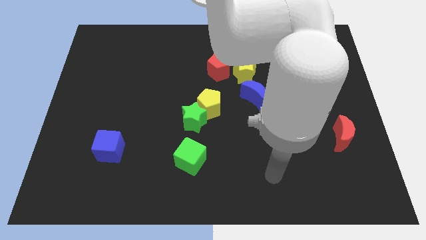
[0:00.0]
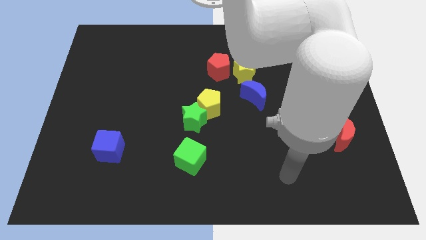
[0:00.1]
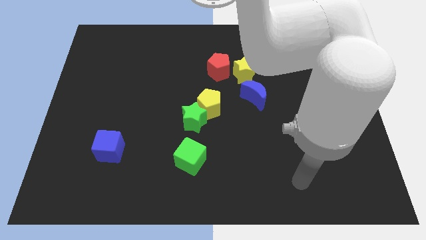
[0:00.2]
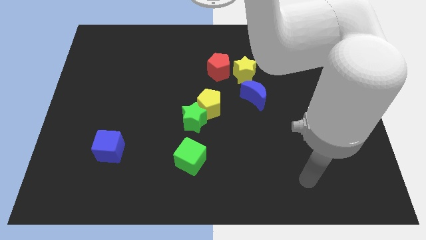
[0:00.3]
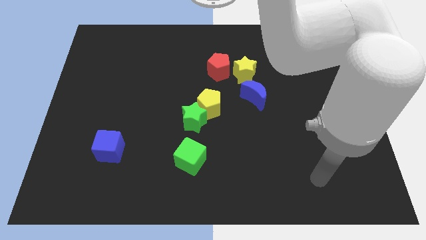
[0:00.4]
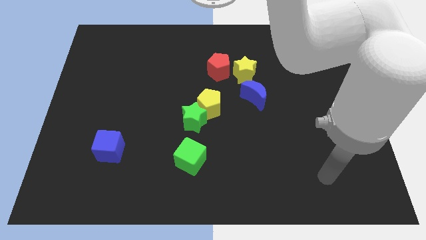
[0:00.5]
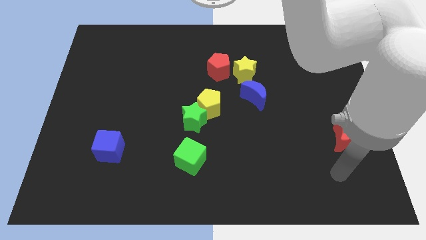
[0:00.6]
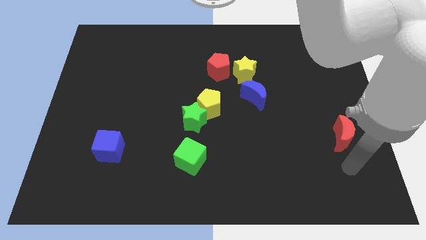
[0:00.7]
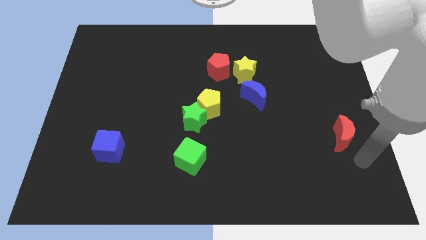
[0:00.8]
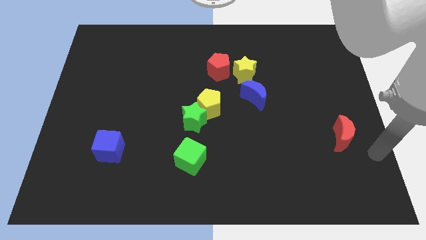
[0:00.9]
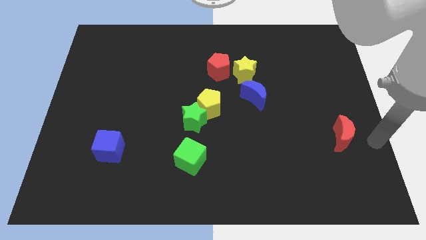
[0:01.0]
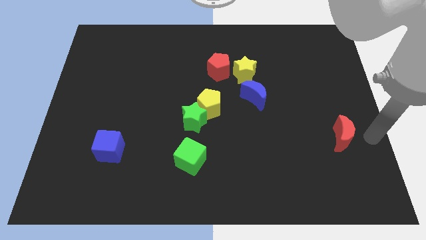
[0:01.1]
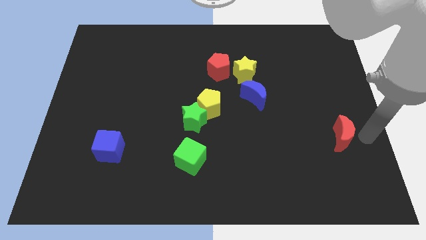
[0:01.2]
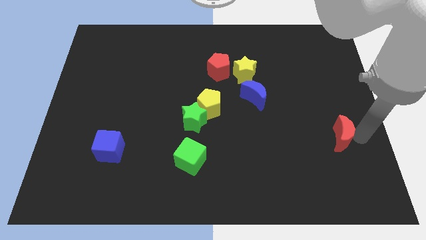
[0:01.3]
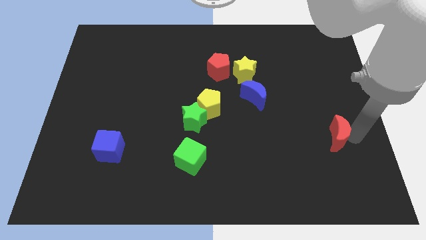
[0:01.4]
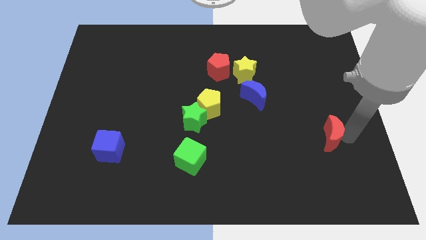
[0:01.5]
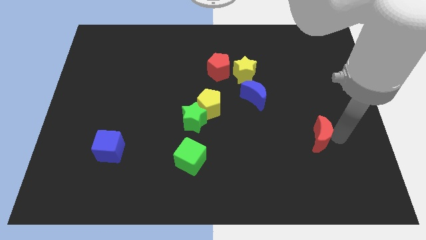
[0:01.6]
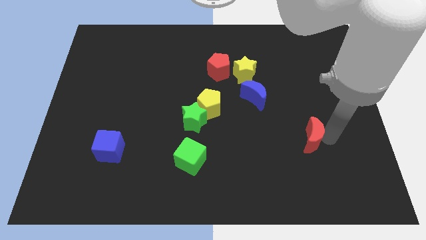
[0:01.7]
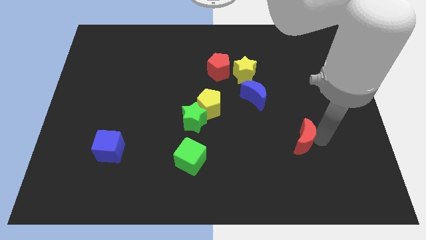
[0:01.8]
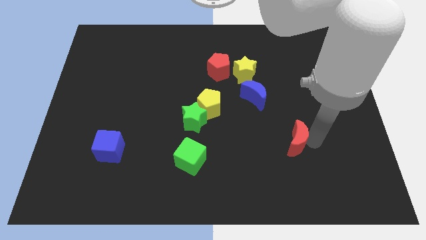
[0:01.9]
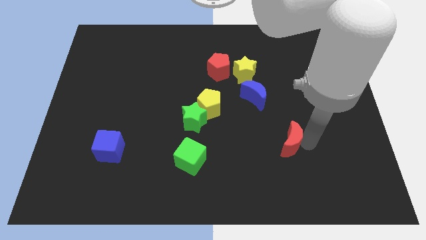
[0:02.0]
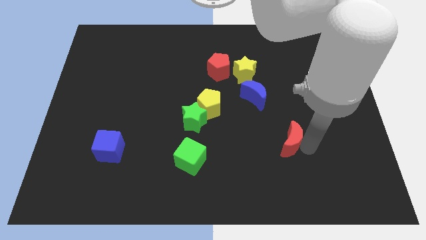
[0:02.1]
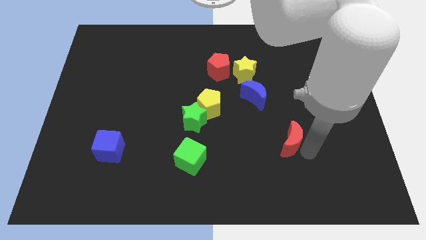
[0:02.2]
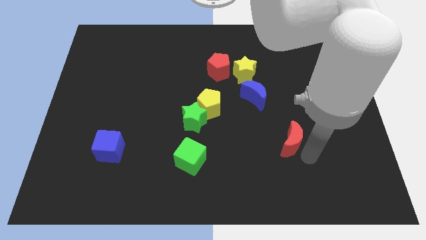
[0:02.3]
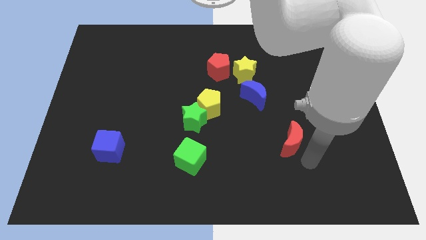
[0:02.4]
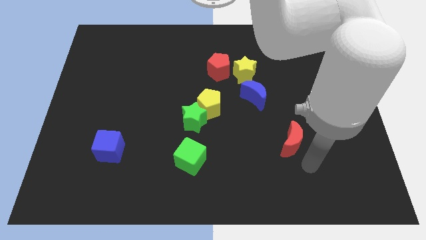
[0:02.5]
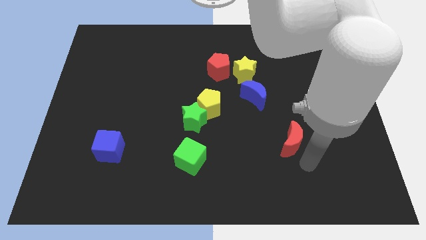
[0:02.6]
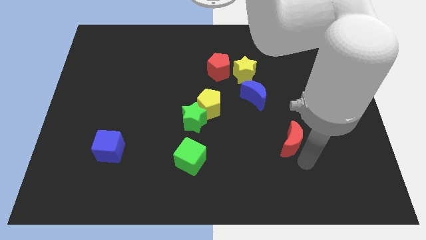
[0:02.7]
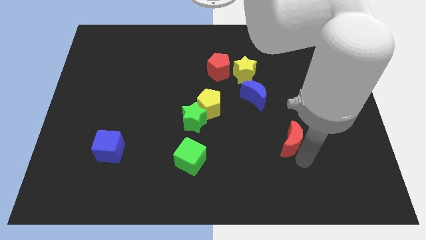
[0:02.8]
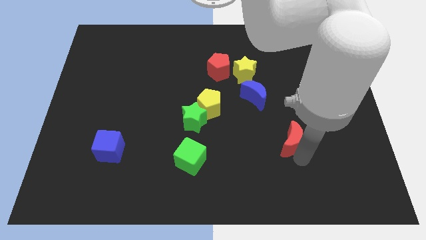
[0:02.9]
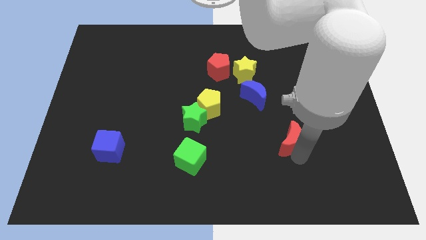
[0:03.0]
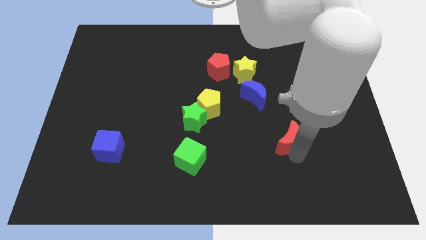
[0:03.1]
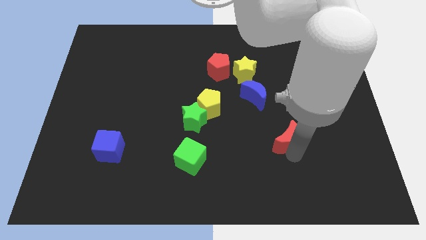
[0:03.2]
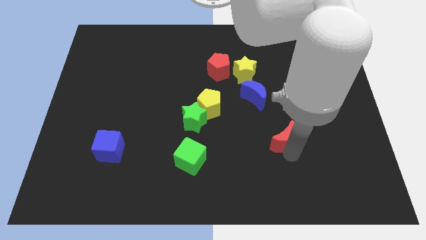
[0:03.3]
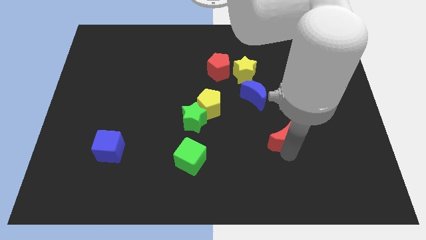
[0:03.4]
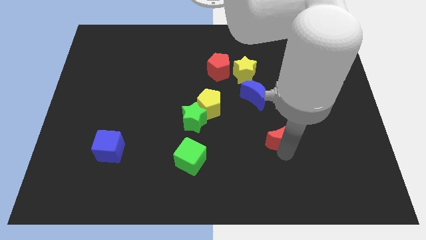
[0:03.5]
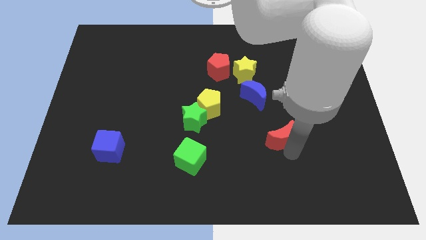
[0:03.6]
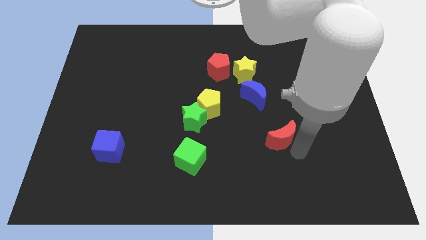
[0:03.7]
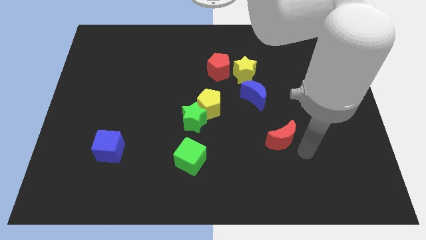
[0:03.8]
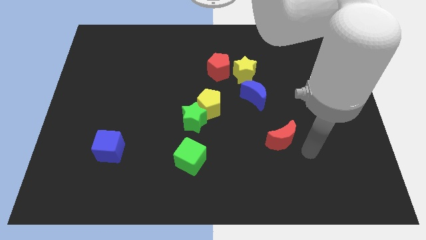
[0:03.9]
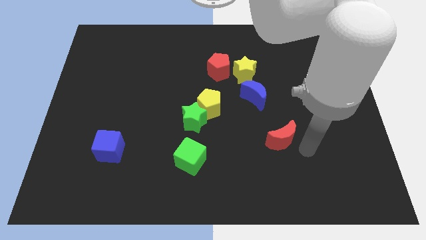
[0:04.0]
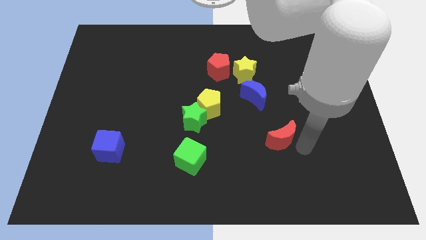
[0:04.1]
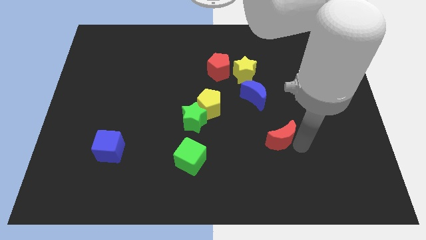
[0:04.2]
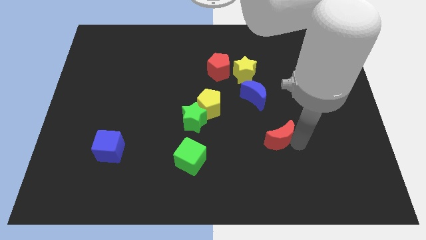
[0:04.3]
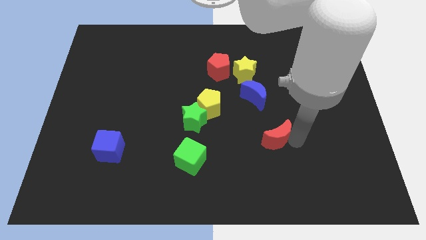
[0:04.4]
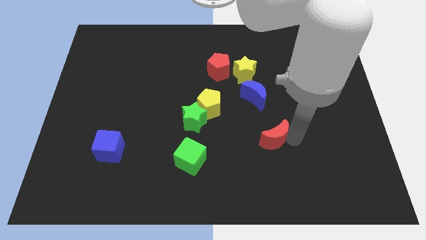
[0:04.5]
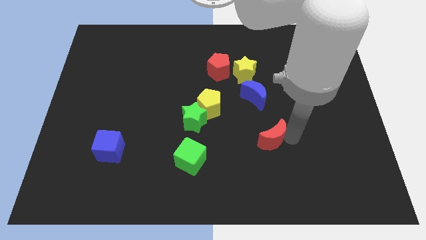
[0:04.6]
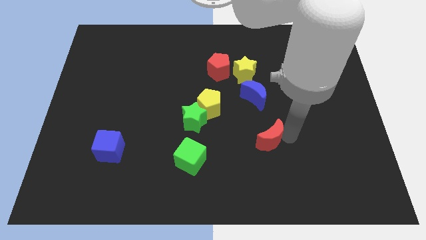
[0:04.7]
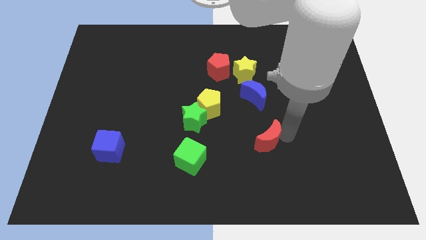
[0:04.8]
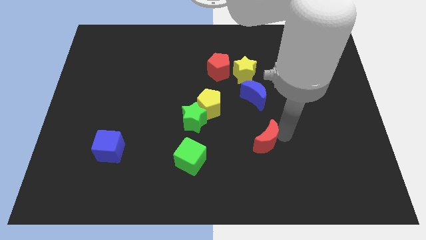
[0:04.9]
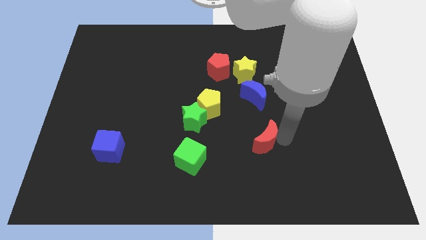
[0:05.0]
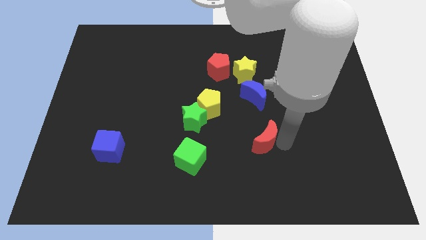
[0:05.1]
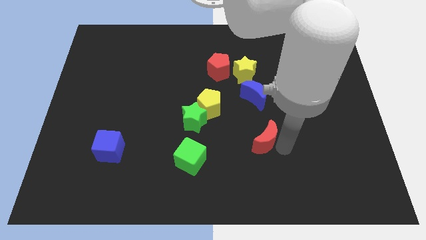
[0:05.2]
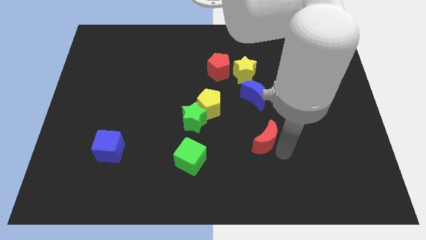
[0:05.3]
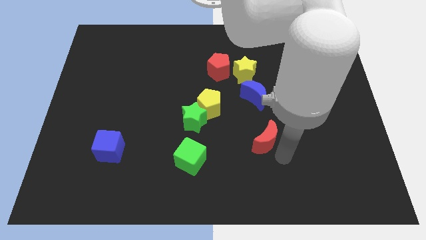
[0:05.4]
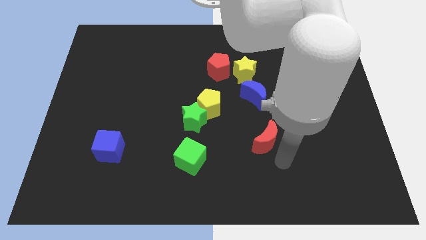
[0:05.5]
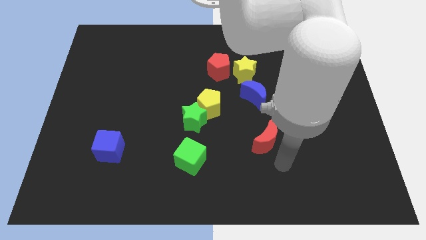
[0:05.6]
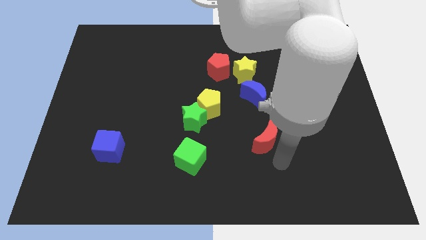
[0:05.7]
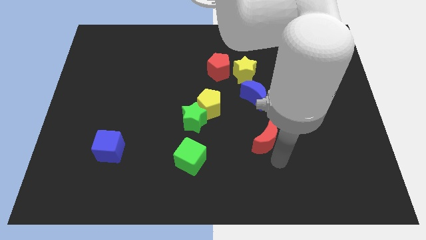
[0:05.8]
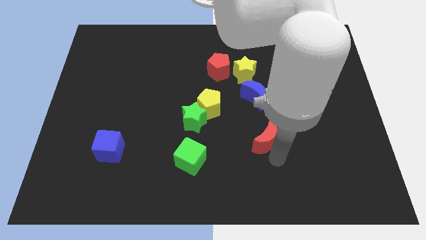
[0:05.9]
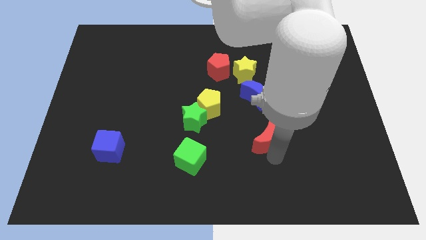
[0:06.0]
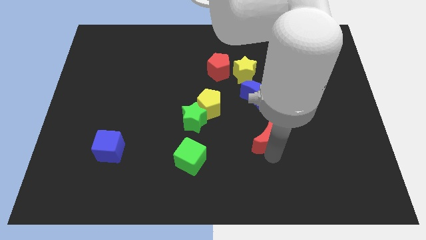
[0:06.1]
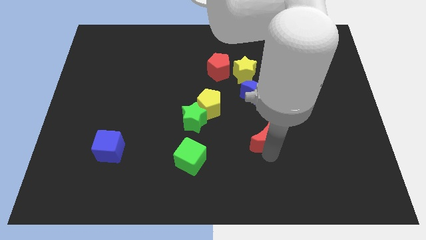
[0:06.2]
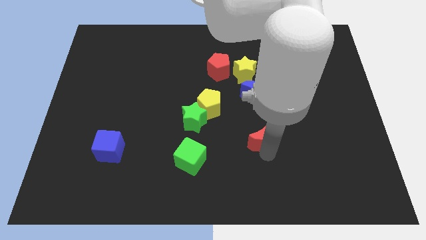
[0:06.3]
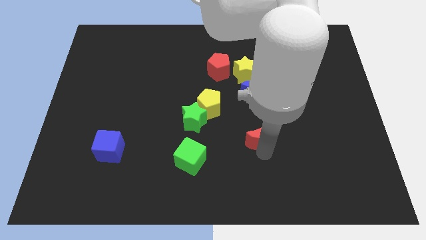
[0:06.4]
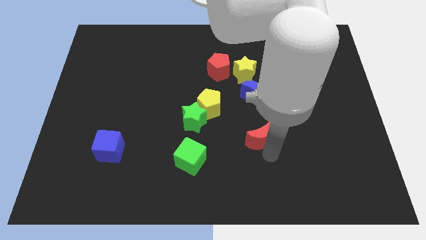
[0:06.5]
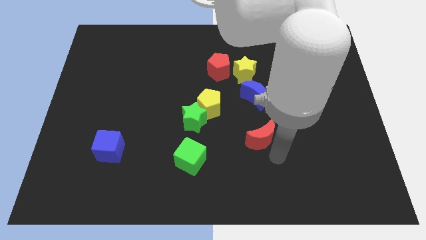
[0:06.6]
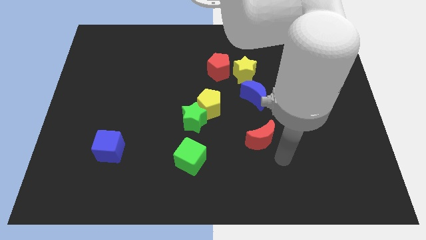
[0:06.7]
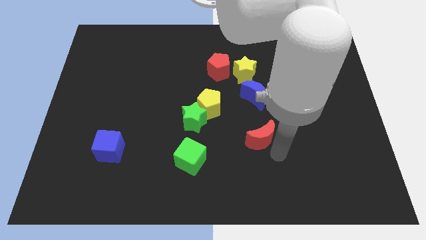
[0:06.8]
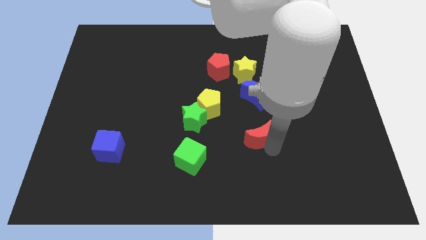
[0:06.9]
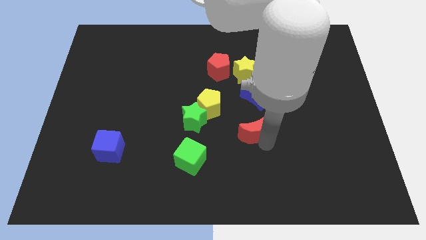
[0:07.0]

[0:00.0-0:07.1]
push the red moon right of the green star

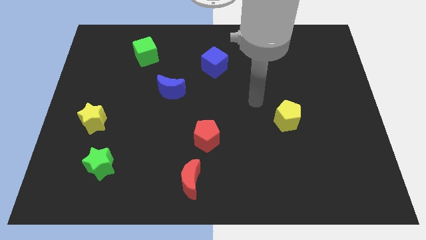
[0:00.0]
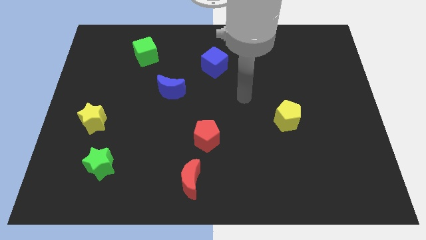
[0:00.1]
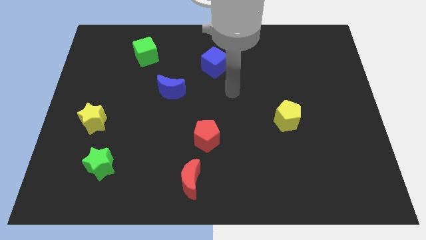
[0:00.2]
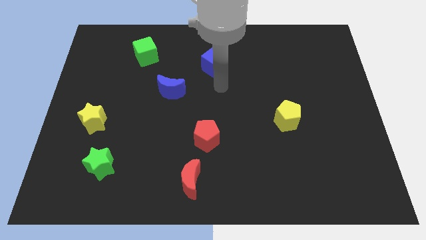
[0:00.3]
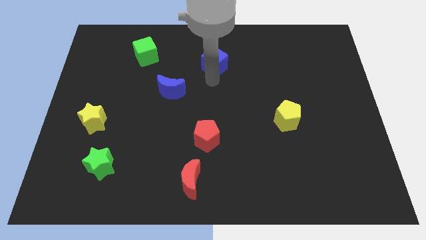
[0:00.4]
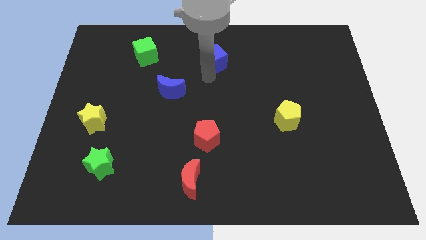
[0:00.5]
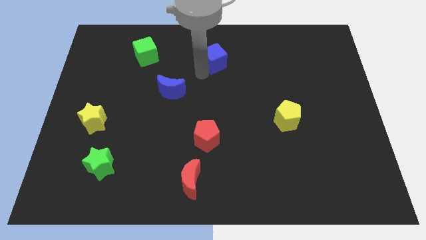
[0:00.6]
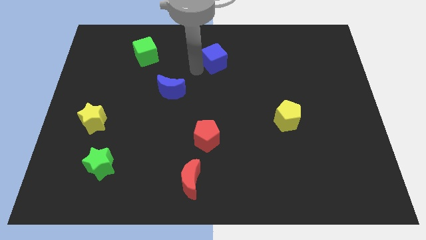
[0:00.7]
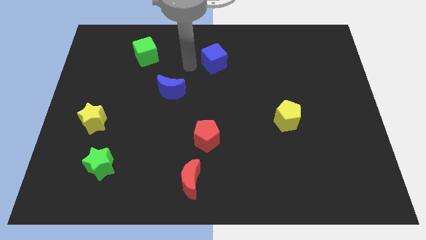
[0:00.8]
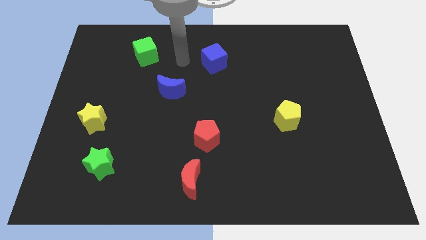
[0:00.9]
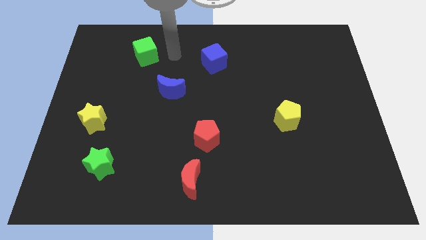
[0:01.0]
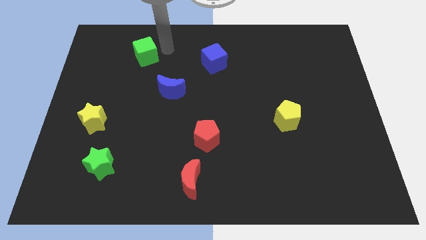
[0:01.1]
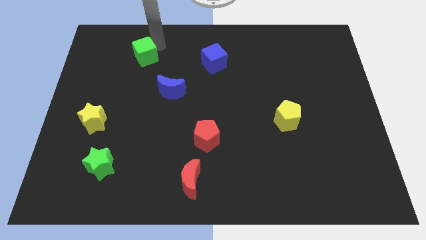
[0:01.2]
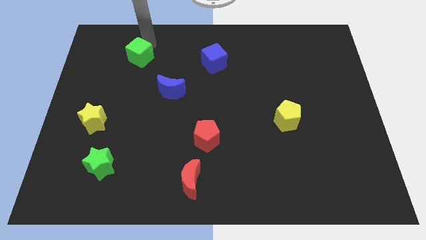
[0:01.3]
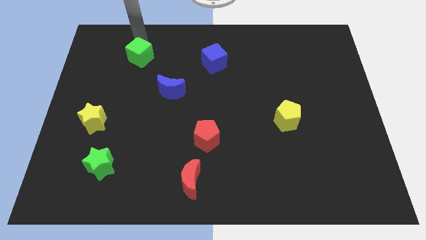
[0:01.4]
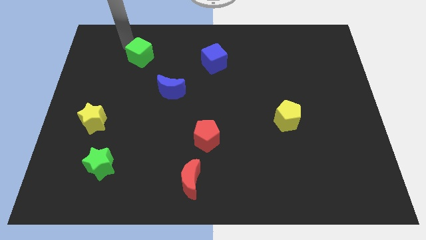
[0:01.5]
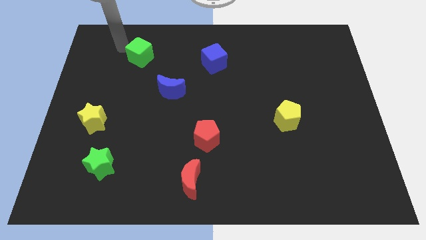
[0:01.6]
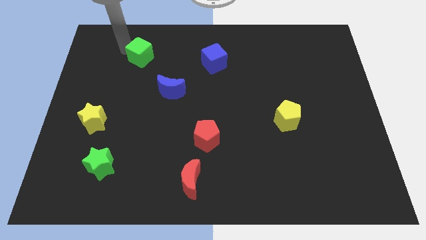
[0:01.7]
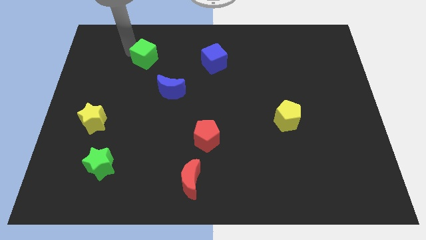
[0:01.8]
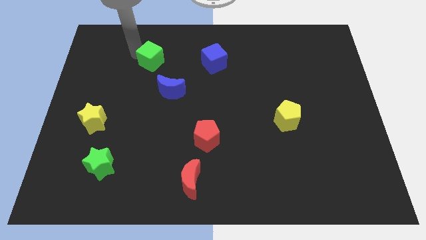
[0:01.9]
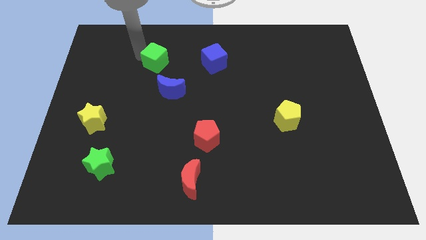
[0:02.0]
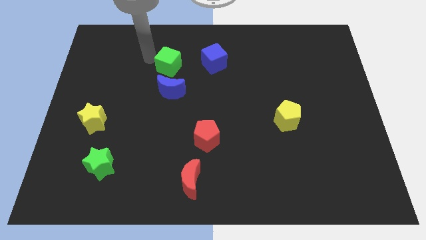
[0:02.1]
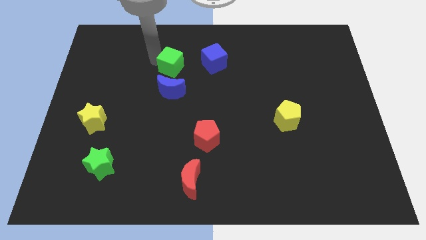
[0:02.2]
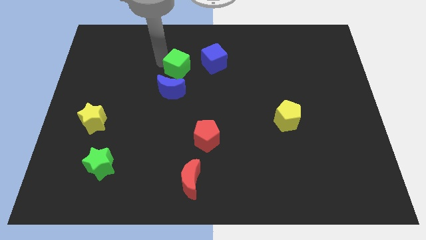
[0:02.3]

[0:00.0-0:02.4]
slide the green cube to the top right of the blue moon
